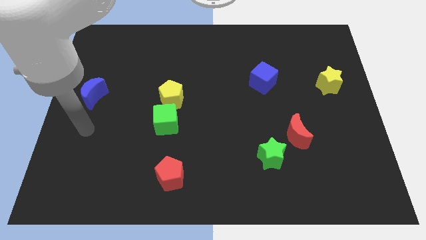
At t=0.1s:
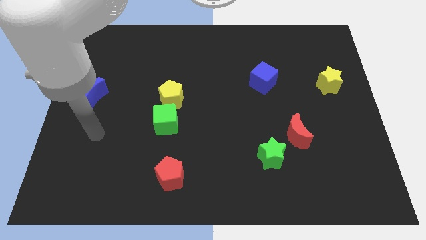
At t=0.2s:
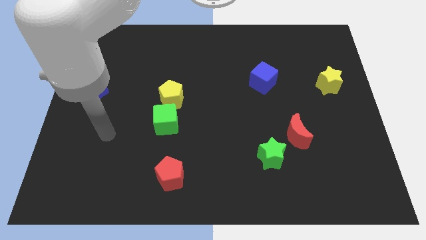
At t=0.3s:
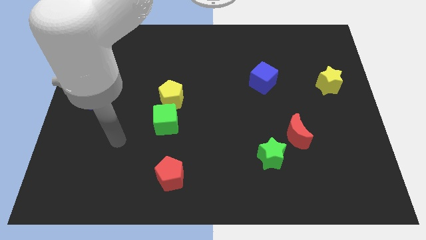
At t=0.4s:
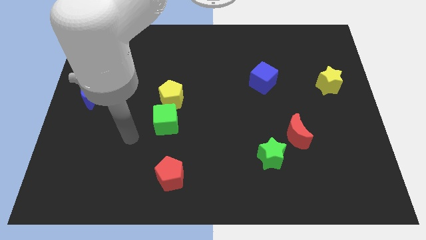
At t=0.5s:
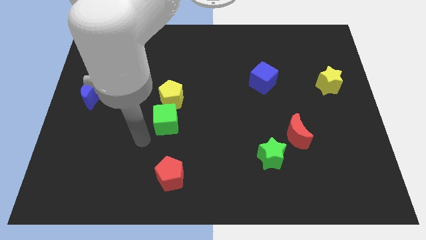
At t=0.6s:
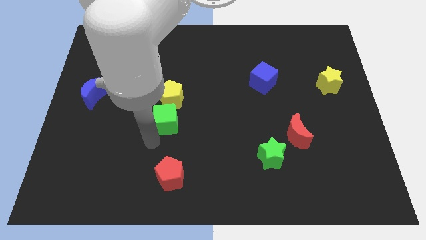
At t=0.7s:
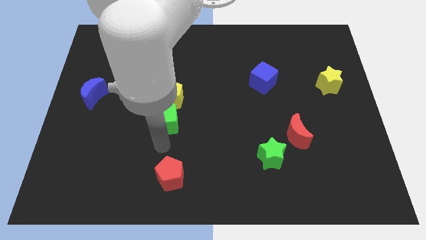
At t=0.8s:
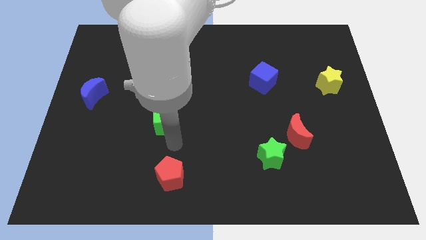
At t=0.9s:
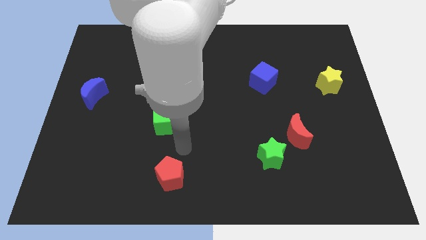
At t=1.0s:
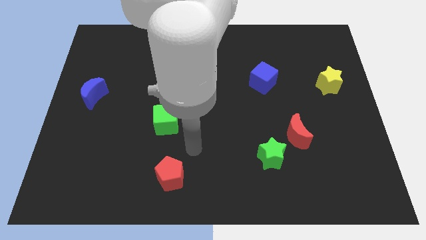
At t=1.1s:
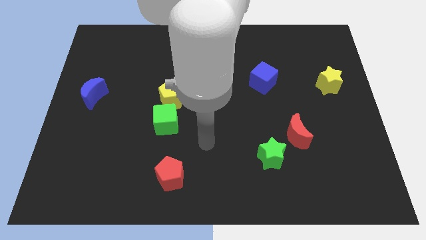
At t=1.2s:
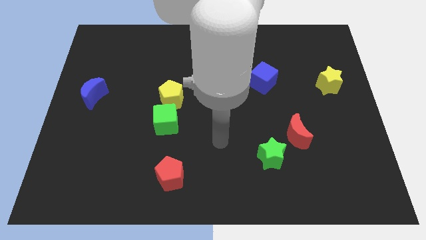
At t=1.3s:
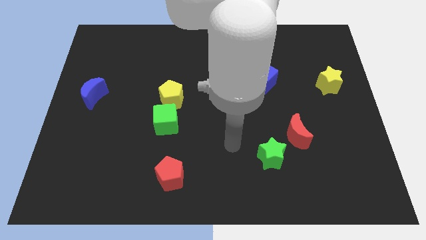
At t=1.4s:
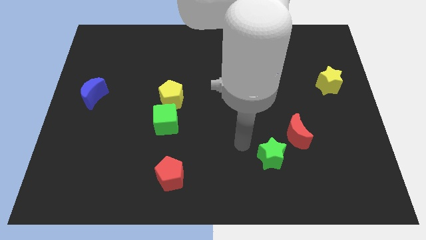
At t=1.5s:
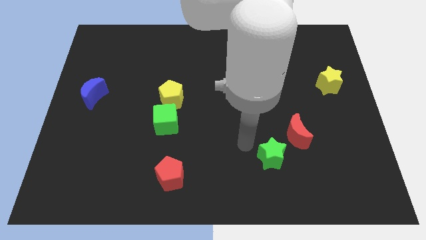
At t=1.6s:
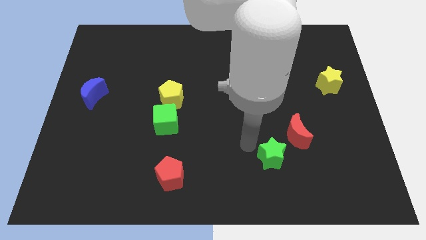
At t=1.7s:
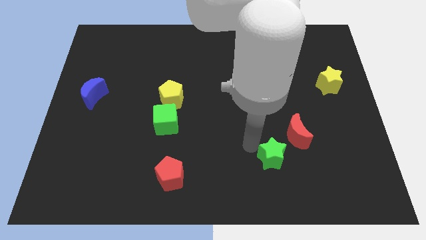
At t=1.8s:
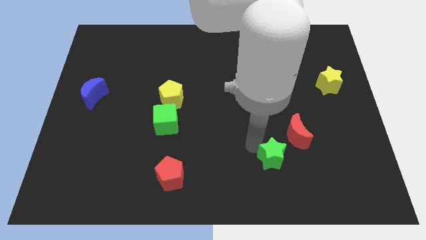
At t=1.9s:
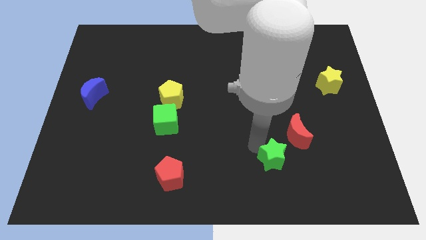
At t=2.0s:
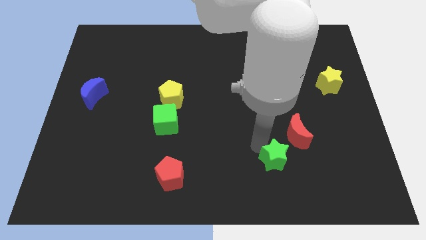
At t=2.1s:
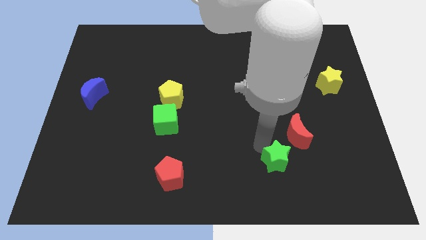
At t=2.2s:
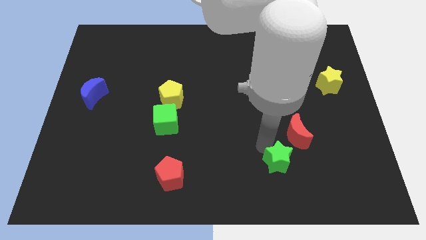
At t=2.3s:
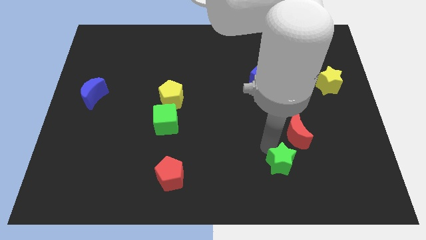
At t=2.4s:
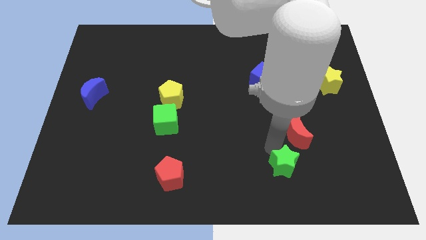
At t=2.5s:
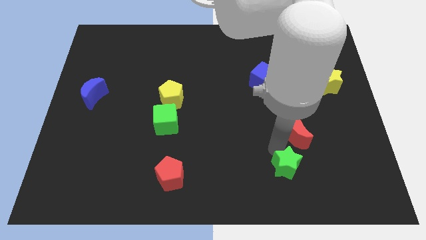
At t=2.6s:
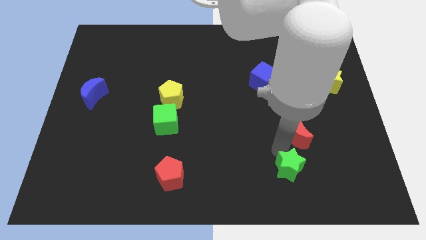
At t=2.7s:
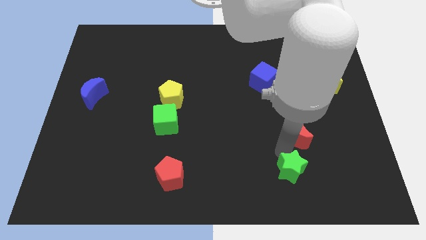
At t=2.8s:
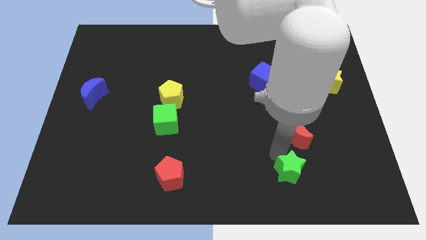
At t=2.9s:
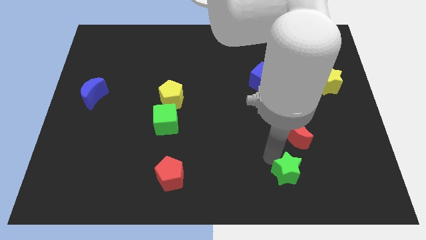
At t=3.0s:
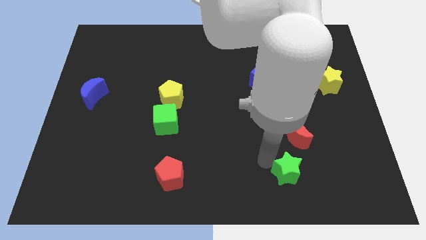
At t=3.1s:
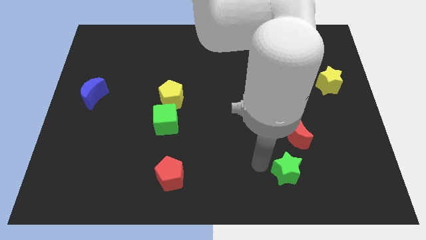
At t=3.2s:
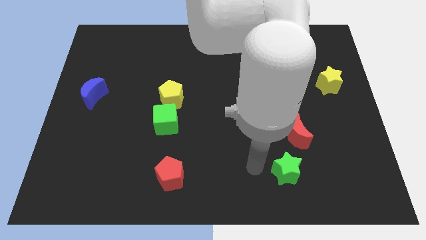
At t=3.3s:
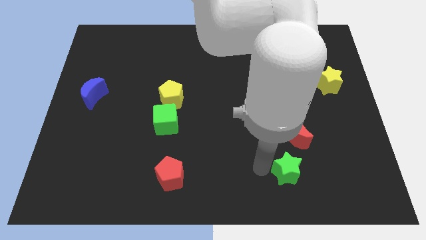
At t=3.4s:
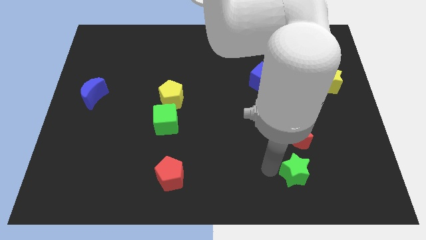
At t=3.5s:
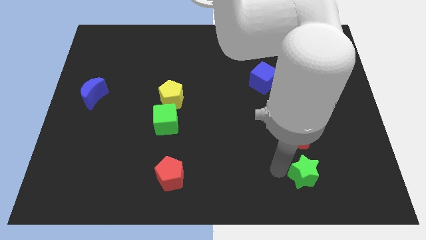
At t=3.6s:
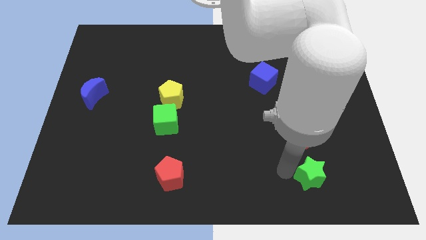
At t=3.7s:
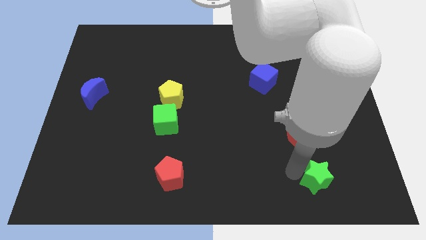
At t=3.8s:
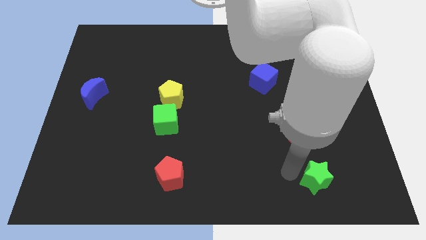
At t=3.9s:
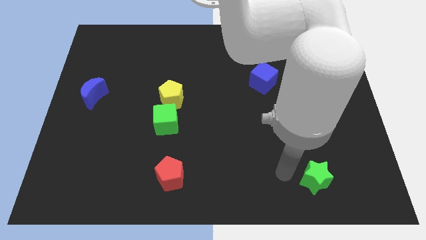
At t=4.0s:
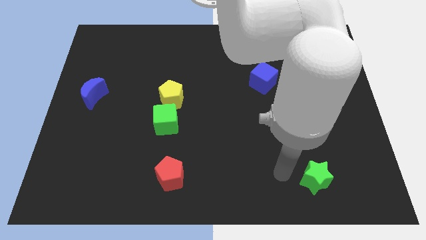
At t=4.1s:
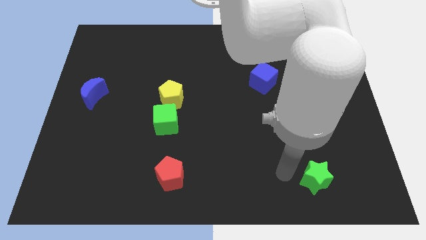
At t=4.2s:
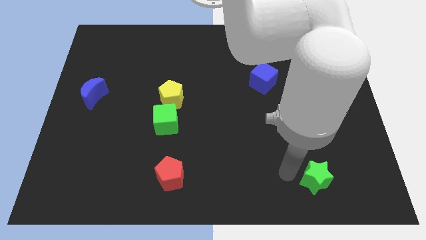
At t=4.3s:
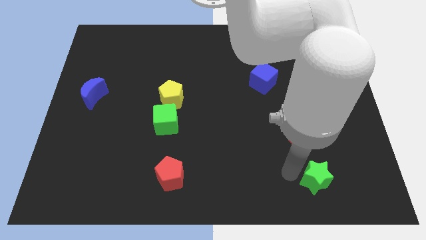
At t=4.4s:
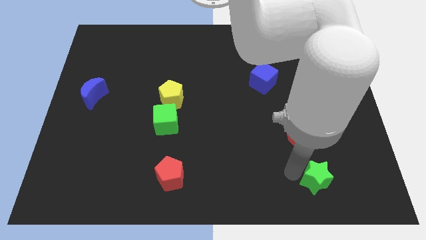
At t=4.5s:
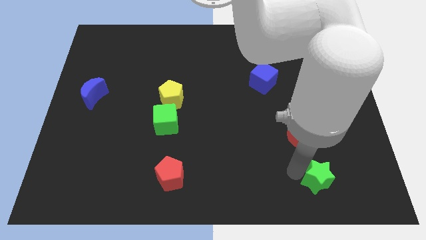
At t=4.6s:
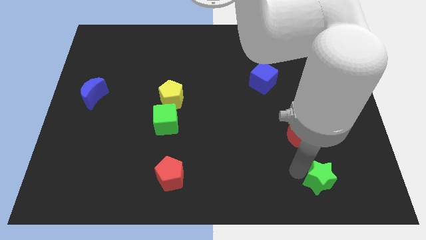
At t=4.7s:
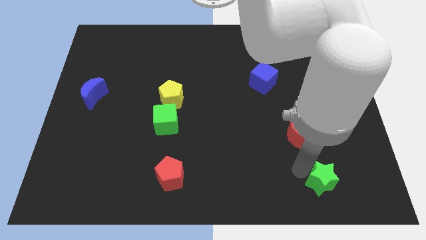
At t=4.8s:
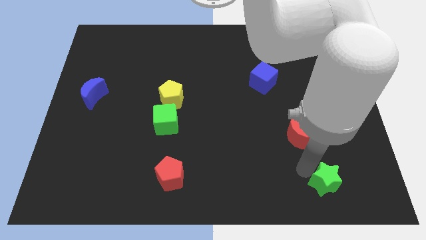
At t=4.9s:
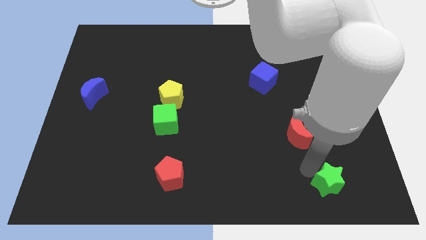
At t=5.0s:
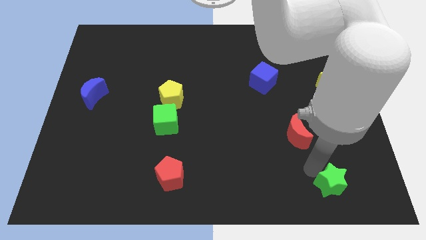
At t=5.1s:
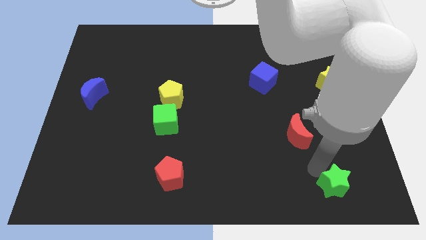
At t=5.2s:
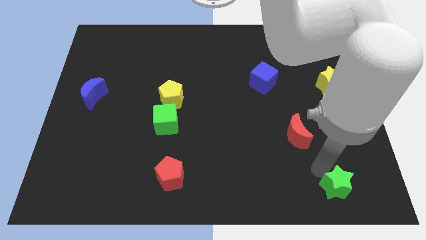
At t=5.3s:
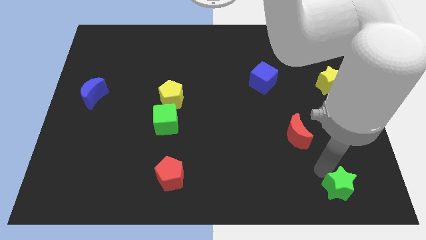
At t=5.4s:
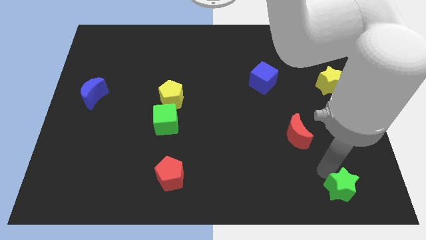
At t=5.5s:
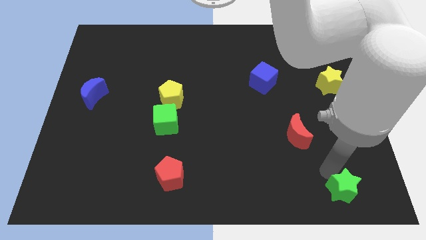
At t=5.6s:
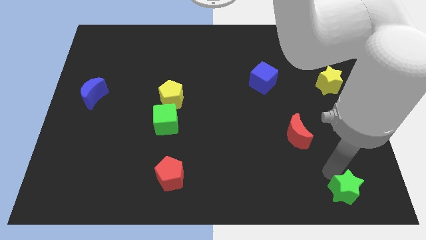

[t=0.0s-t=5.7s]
push the green star to the bottom right corner
